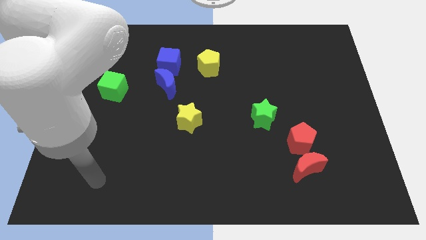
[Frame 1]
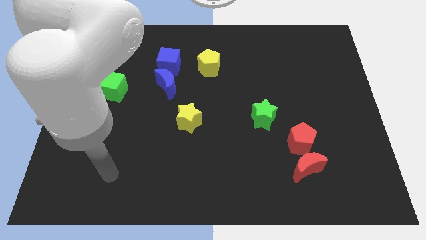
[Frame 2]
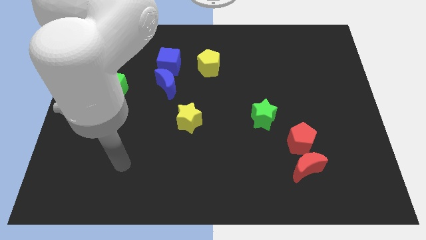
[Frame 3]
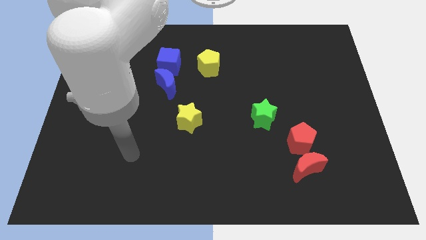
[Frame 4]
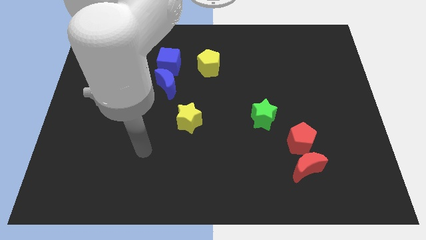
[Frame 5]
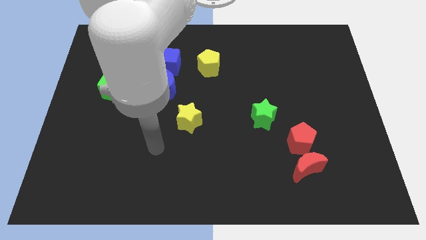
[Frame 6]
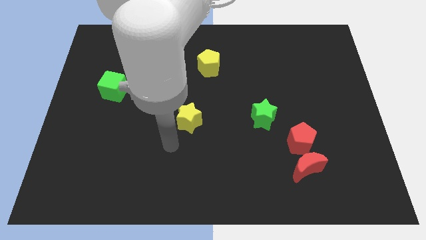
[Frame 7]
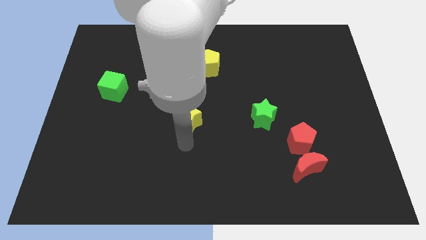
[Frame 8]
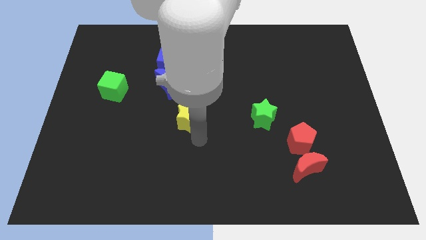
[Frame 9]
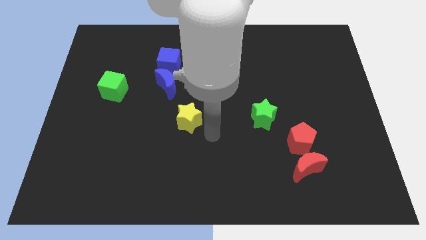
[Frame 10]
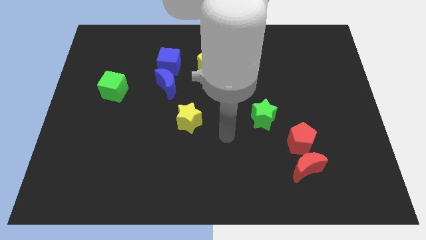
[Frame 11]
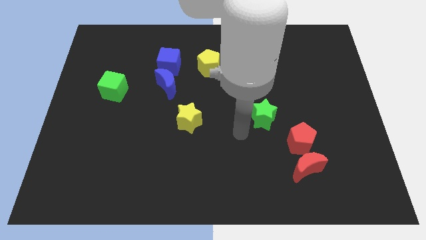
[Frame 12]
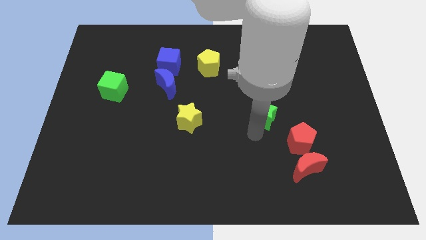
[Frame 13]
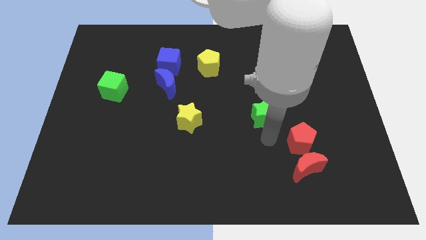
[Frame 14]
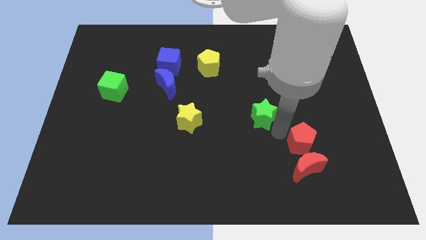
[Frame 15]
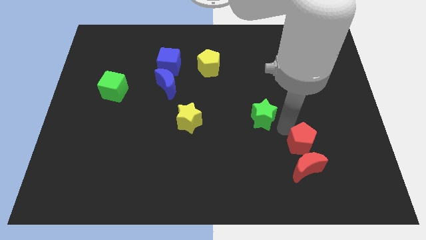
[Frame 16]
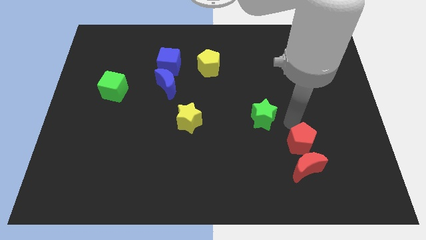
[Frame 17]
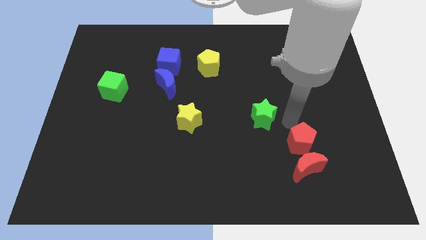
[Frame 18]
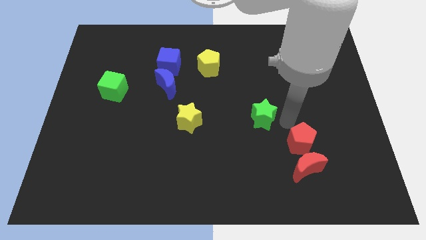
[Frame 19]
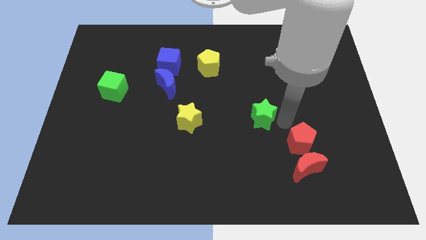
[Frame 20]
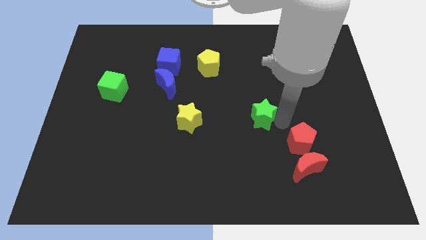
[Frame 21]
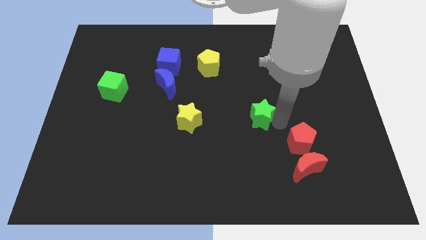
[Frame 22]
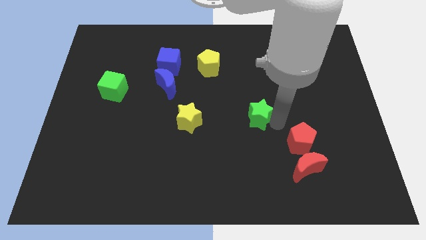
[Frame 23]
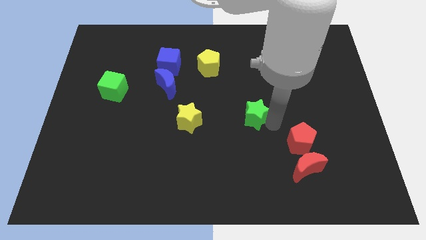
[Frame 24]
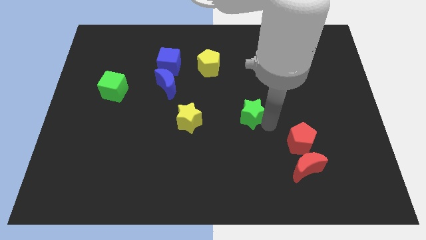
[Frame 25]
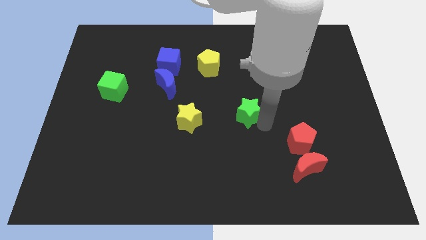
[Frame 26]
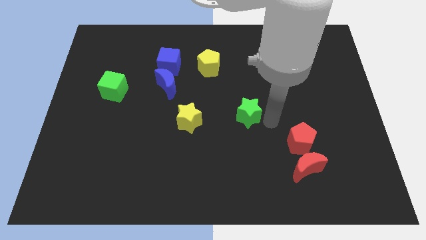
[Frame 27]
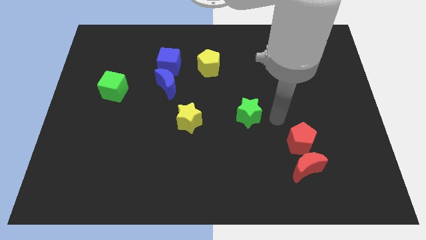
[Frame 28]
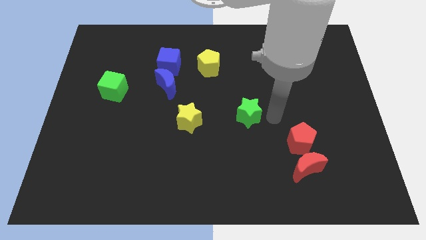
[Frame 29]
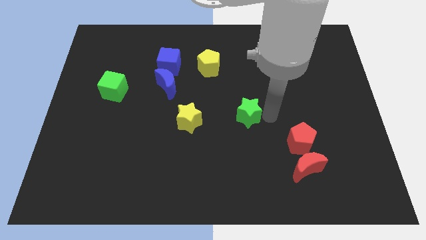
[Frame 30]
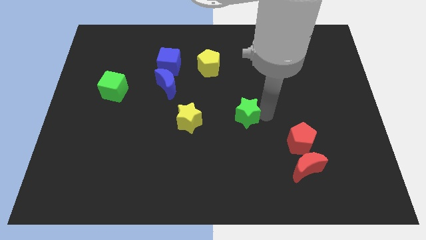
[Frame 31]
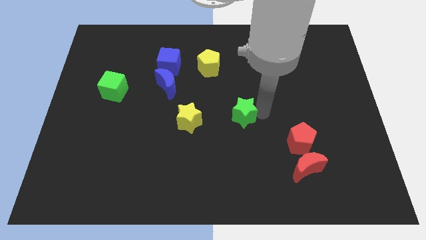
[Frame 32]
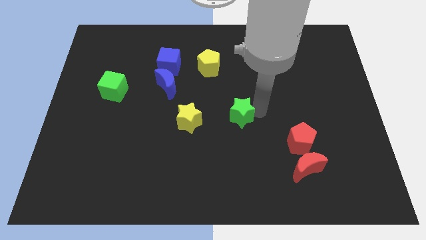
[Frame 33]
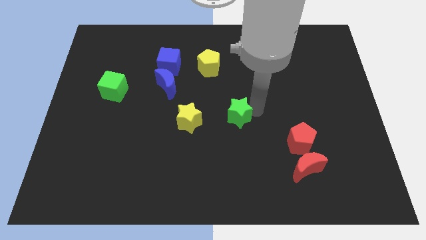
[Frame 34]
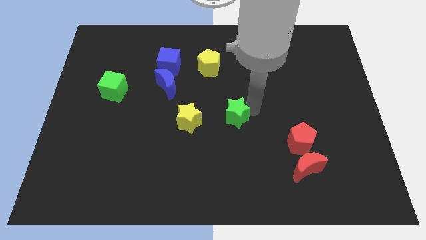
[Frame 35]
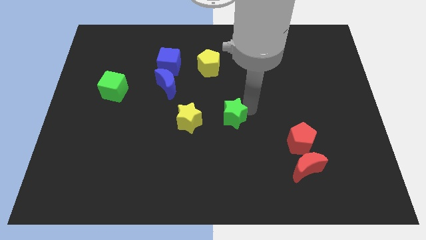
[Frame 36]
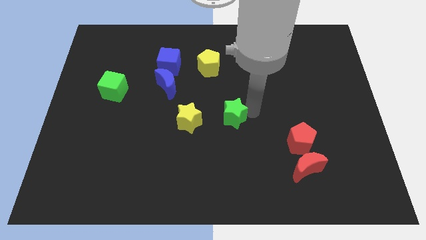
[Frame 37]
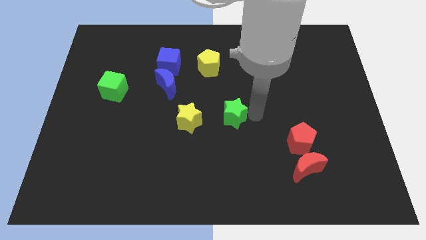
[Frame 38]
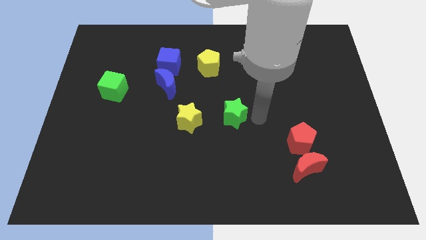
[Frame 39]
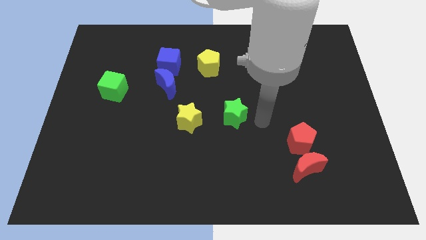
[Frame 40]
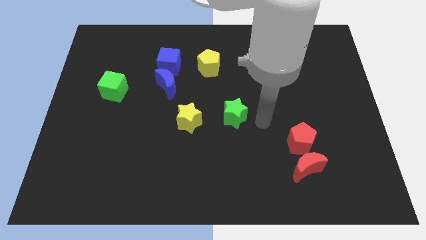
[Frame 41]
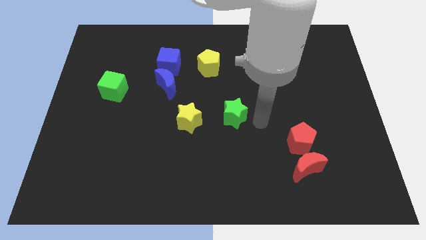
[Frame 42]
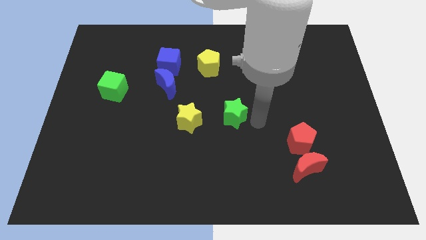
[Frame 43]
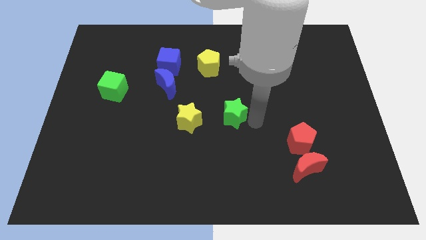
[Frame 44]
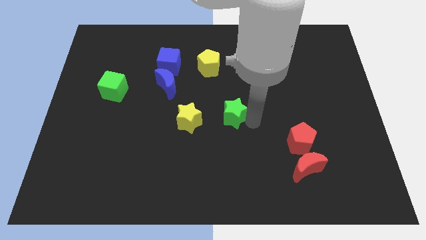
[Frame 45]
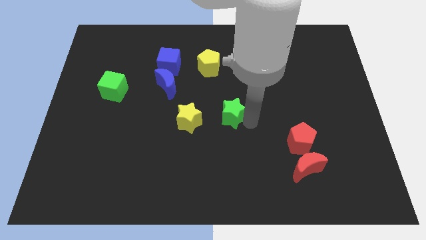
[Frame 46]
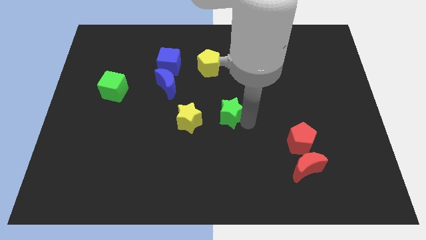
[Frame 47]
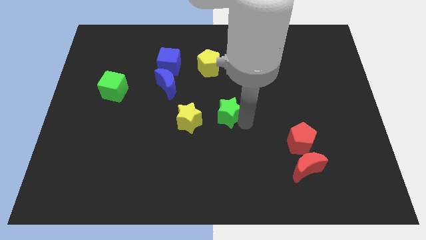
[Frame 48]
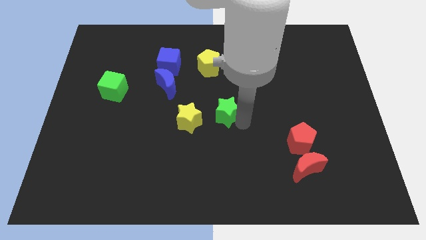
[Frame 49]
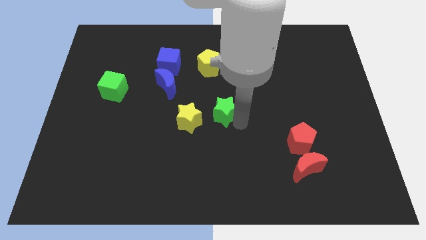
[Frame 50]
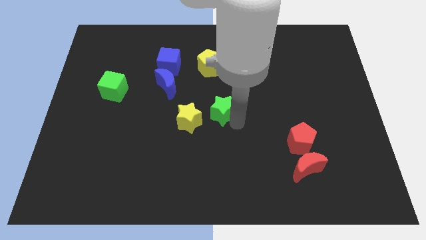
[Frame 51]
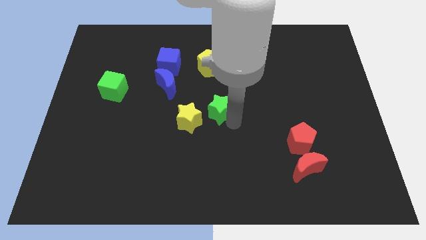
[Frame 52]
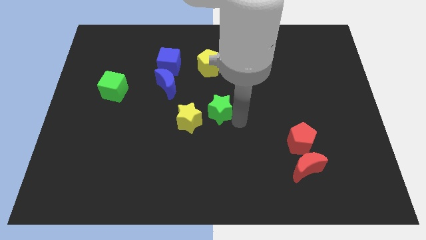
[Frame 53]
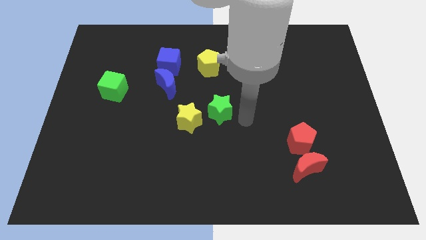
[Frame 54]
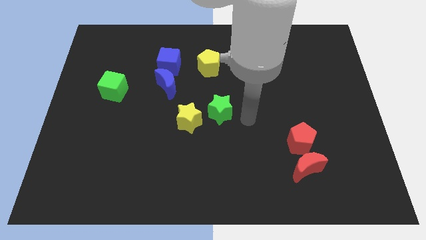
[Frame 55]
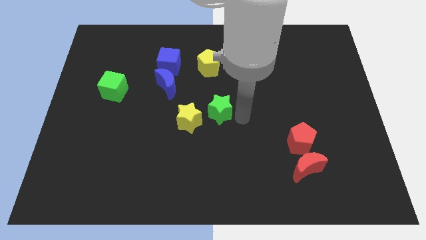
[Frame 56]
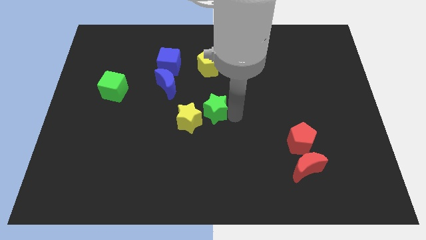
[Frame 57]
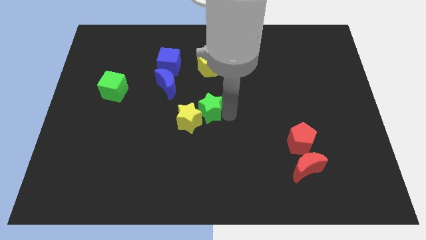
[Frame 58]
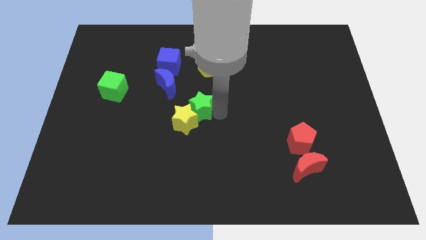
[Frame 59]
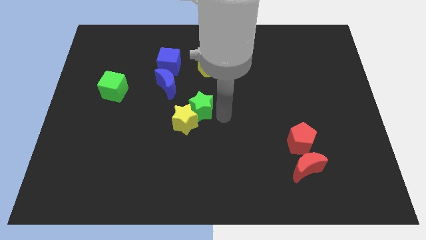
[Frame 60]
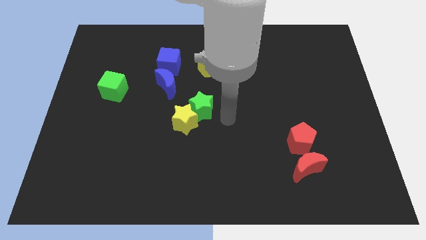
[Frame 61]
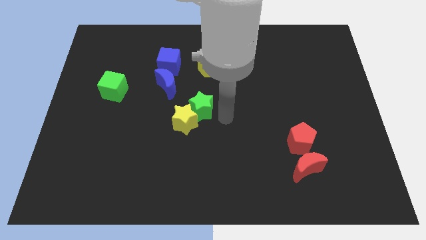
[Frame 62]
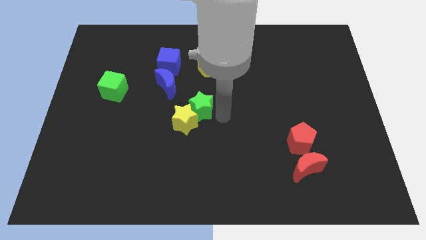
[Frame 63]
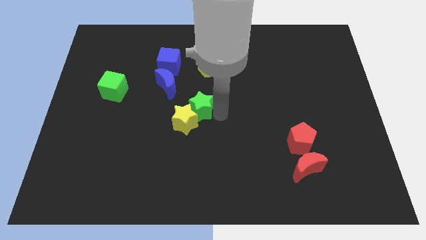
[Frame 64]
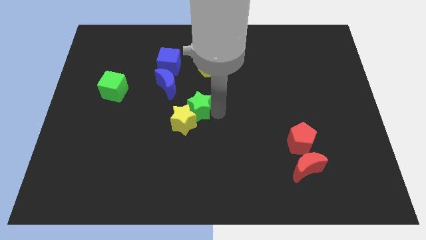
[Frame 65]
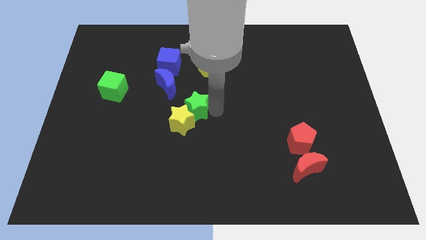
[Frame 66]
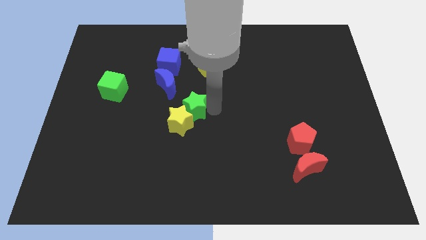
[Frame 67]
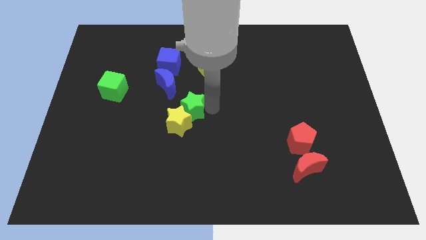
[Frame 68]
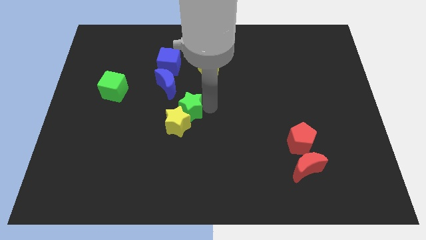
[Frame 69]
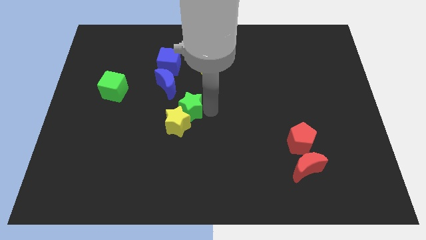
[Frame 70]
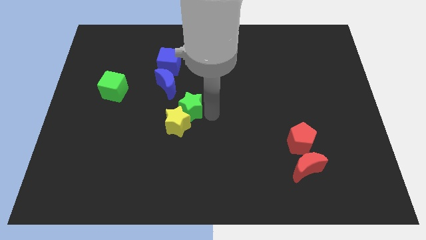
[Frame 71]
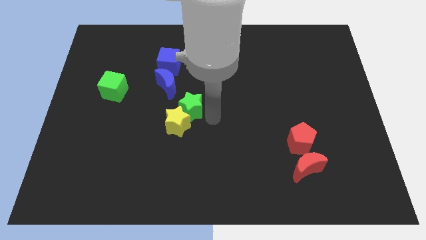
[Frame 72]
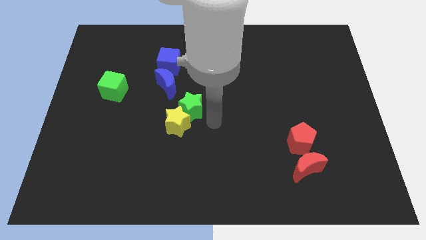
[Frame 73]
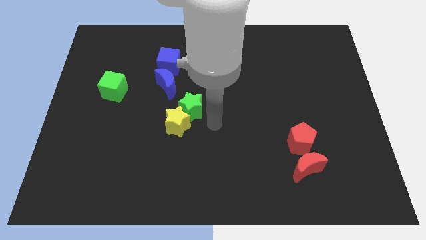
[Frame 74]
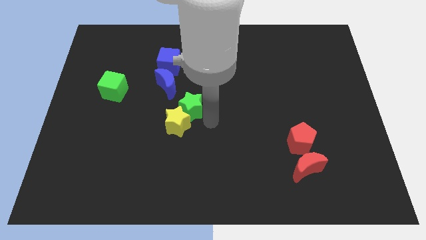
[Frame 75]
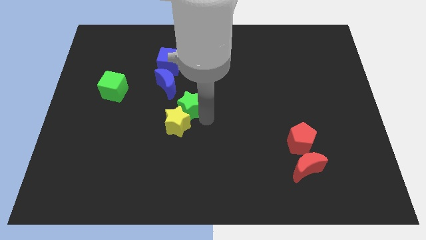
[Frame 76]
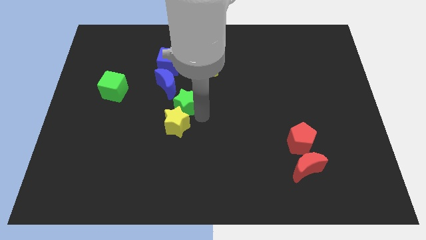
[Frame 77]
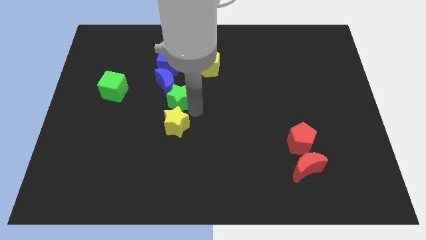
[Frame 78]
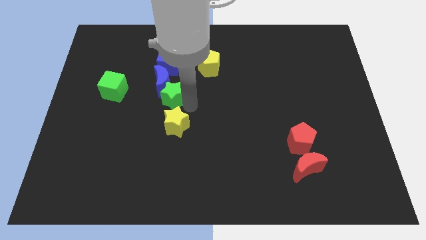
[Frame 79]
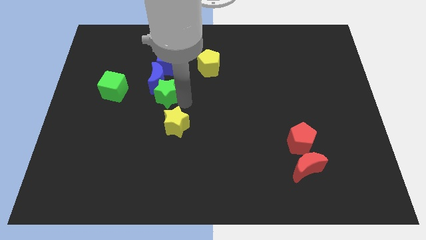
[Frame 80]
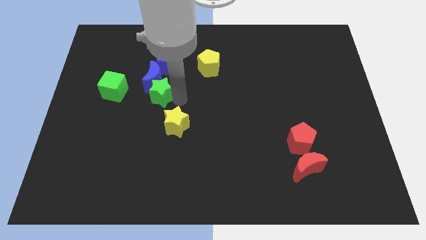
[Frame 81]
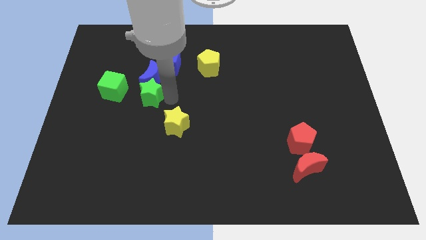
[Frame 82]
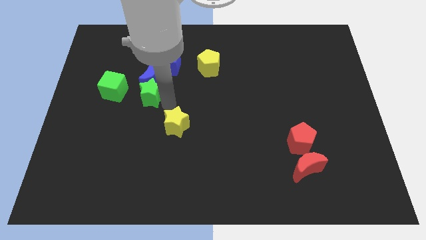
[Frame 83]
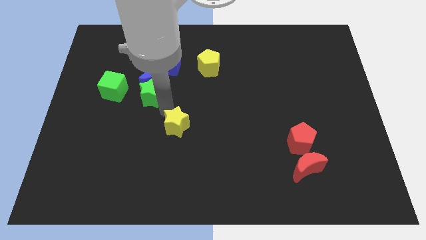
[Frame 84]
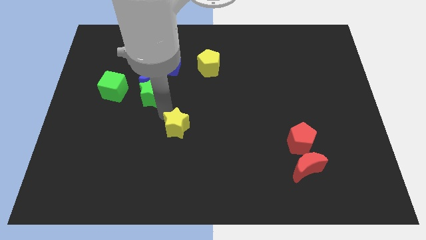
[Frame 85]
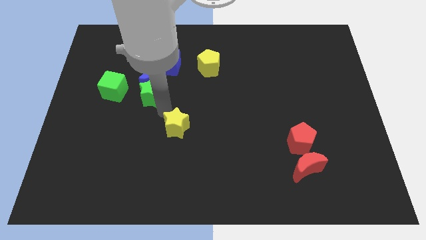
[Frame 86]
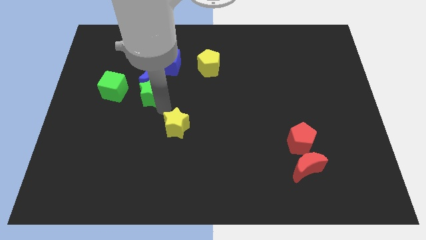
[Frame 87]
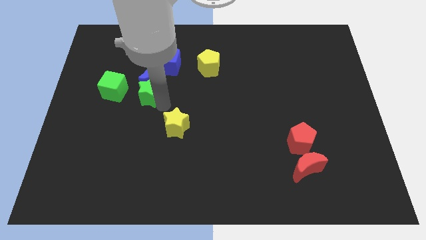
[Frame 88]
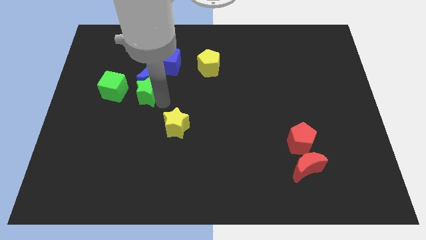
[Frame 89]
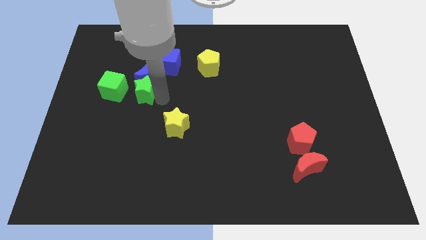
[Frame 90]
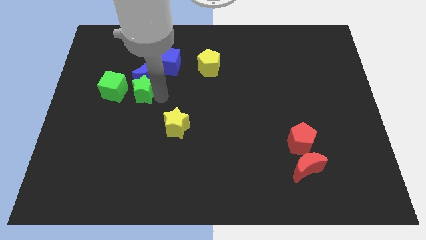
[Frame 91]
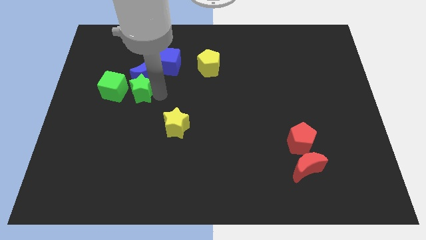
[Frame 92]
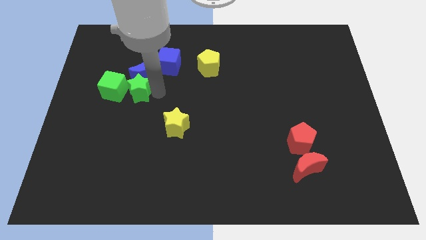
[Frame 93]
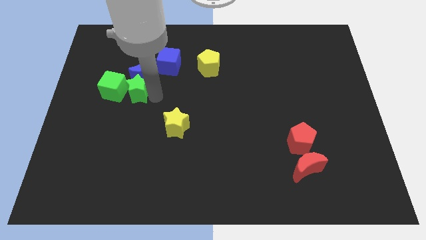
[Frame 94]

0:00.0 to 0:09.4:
push the green star diagonally up and to the right of the green cube
